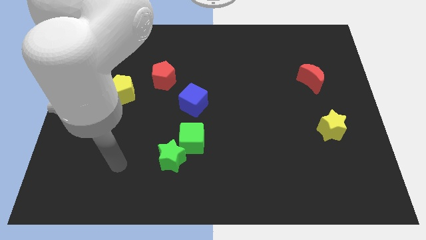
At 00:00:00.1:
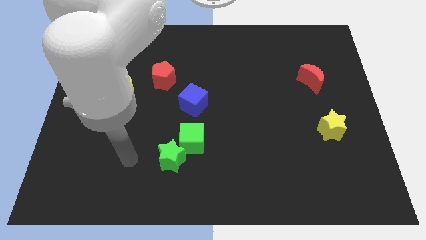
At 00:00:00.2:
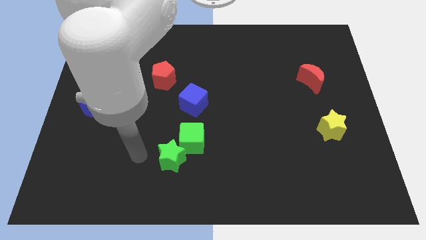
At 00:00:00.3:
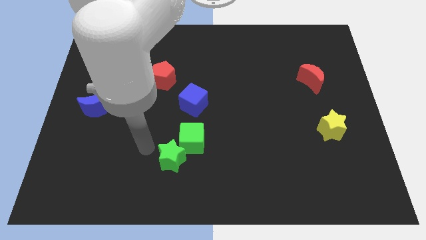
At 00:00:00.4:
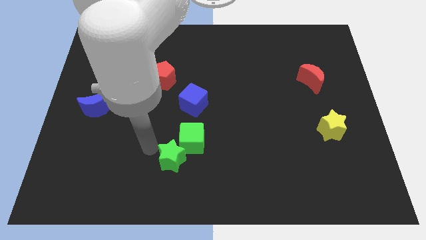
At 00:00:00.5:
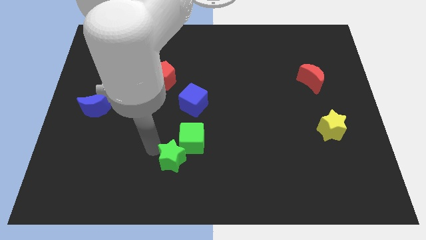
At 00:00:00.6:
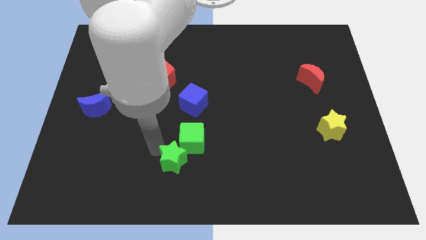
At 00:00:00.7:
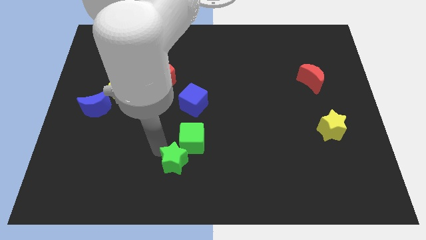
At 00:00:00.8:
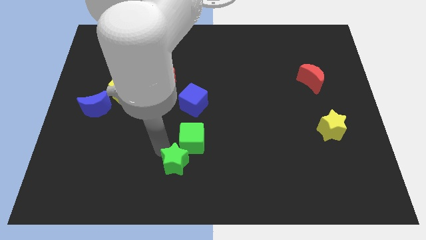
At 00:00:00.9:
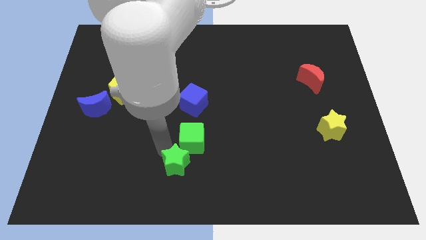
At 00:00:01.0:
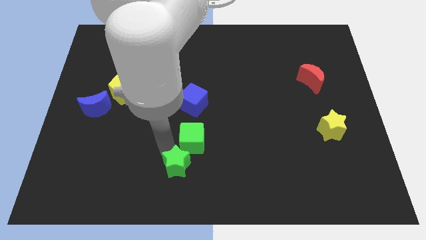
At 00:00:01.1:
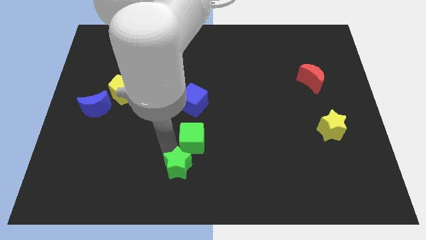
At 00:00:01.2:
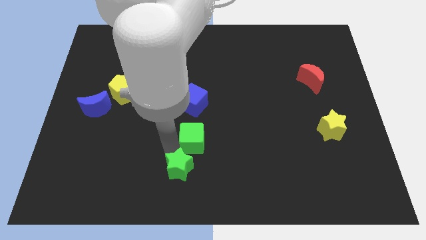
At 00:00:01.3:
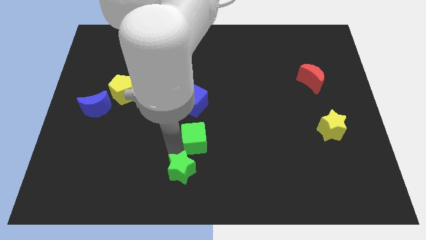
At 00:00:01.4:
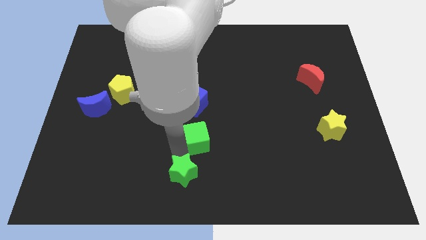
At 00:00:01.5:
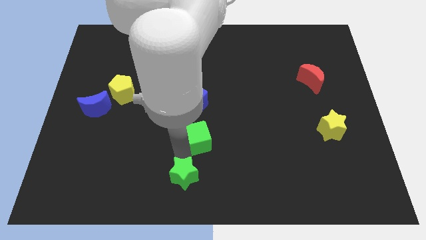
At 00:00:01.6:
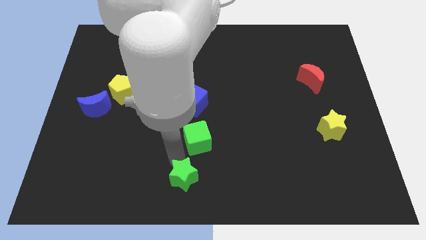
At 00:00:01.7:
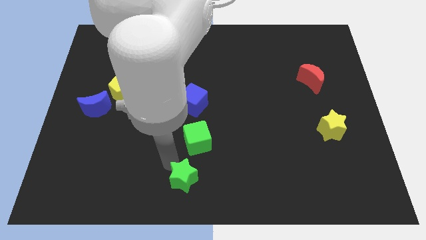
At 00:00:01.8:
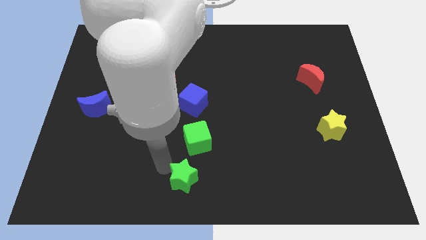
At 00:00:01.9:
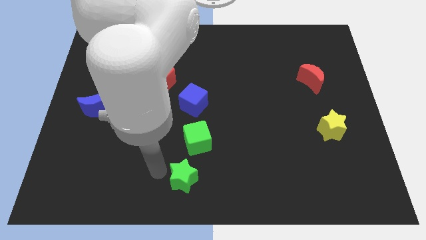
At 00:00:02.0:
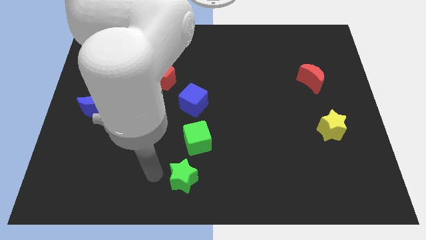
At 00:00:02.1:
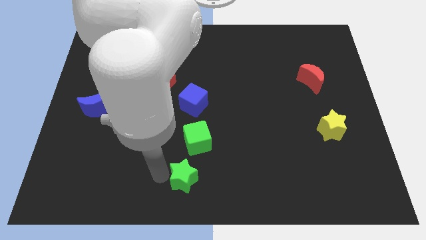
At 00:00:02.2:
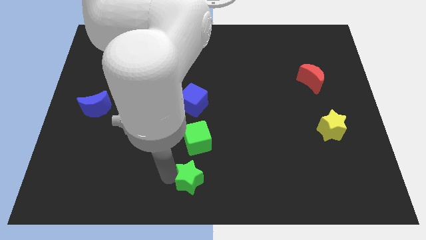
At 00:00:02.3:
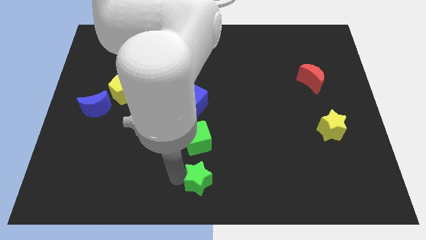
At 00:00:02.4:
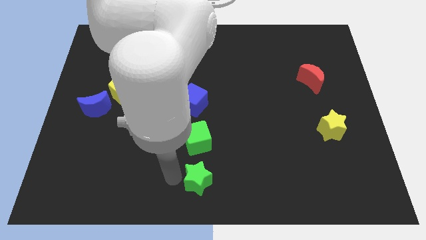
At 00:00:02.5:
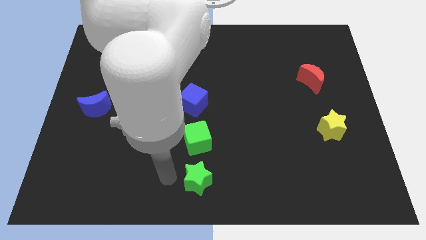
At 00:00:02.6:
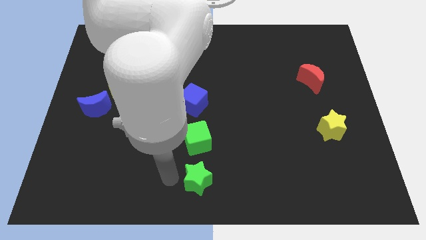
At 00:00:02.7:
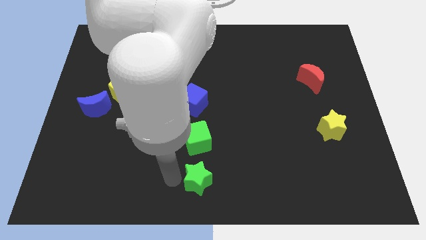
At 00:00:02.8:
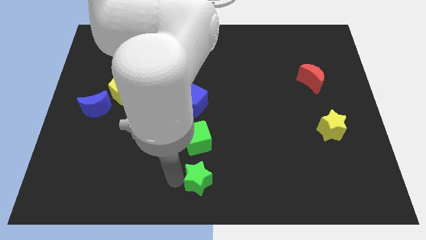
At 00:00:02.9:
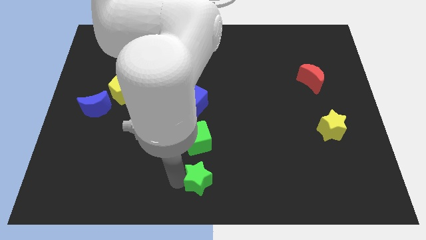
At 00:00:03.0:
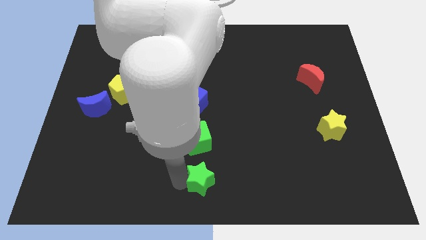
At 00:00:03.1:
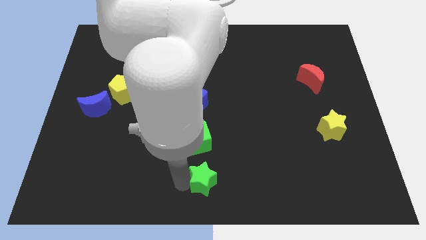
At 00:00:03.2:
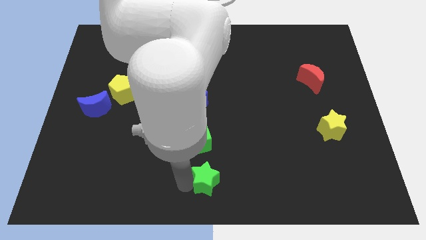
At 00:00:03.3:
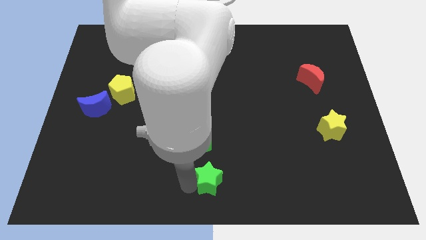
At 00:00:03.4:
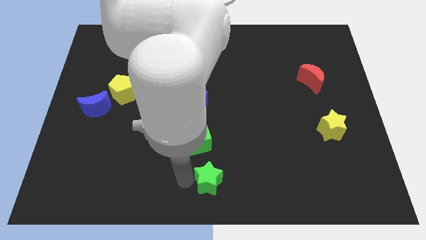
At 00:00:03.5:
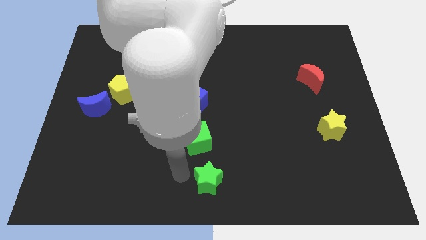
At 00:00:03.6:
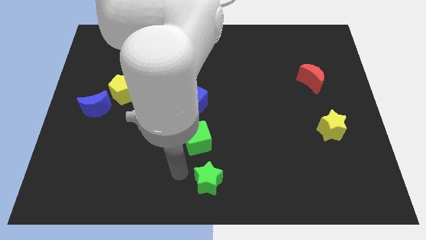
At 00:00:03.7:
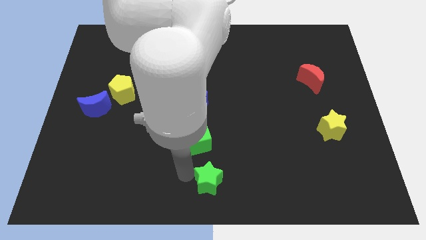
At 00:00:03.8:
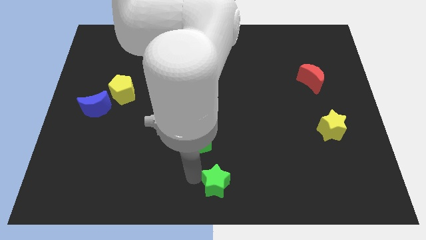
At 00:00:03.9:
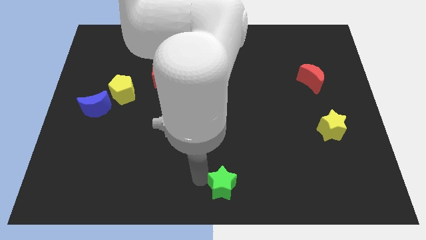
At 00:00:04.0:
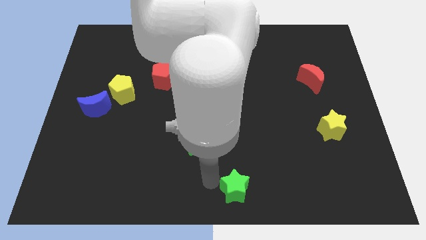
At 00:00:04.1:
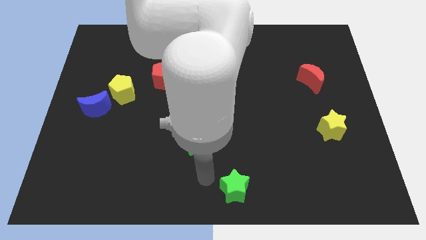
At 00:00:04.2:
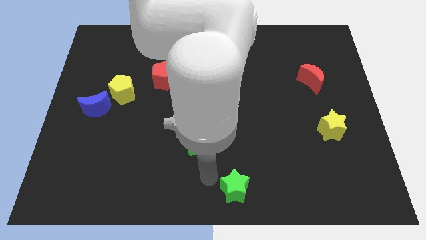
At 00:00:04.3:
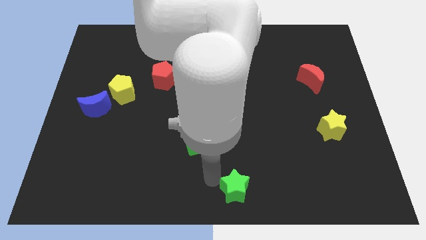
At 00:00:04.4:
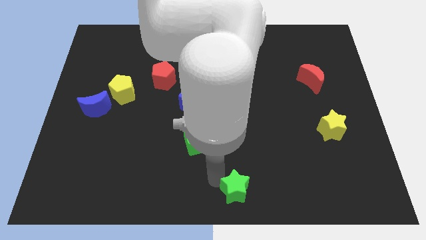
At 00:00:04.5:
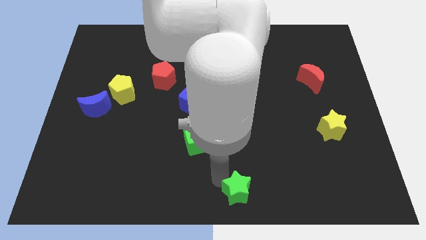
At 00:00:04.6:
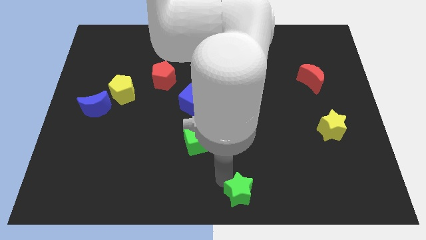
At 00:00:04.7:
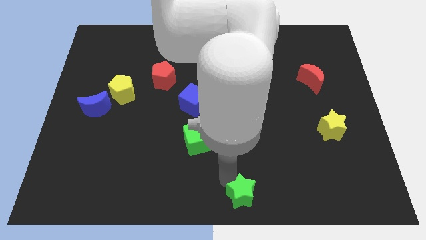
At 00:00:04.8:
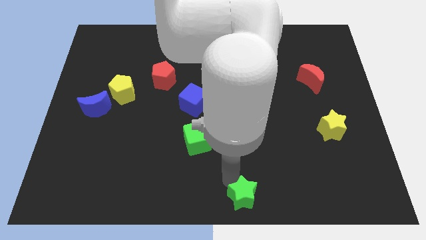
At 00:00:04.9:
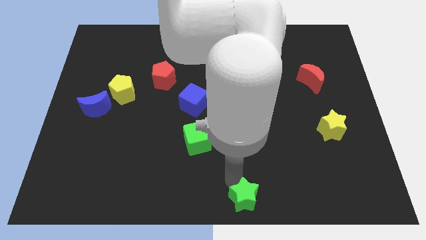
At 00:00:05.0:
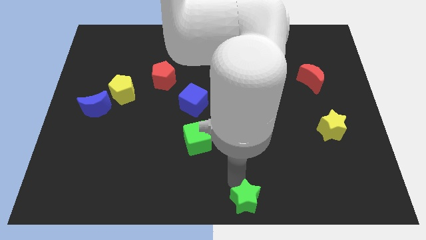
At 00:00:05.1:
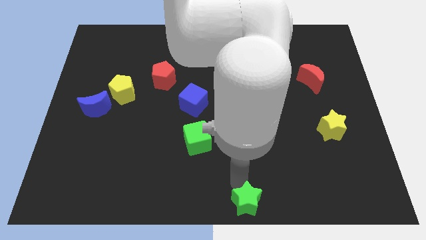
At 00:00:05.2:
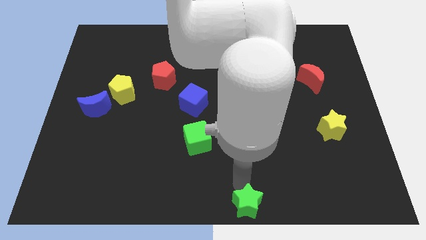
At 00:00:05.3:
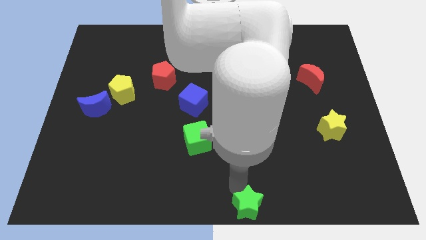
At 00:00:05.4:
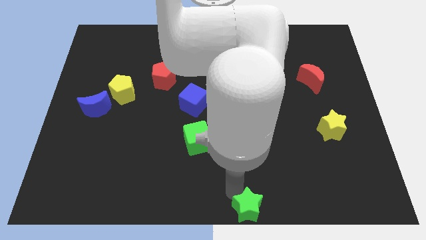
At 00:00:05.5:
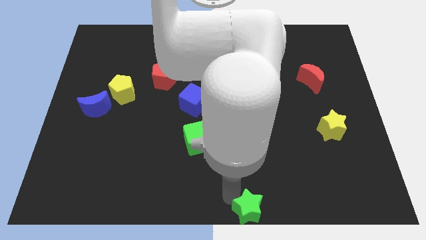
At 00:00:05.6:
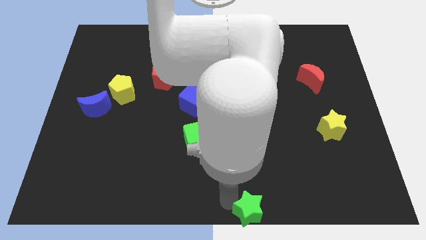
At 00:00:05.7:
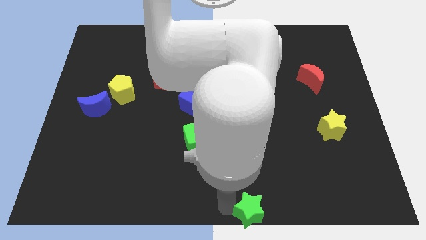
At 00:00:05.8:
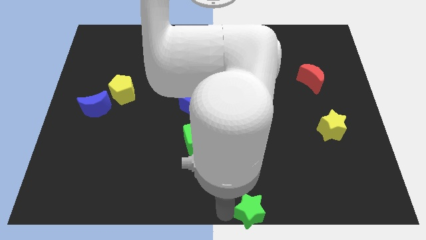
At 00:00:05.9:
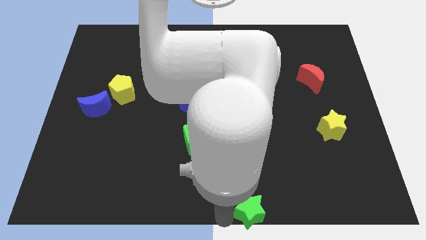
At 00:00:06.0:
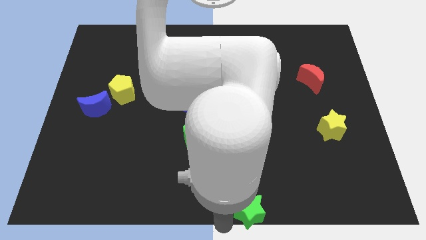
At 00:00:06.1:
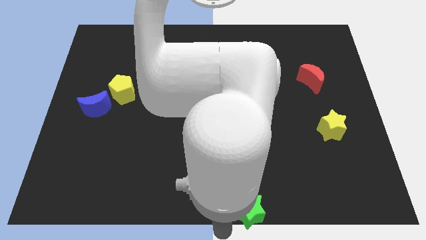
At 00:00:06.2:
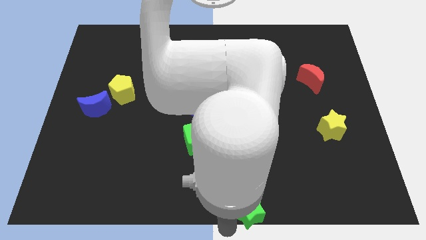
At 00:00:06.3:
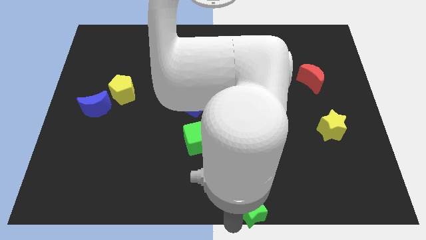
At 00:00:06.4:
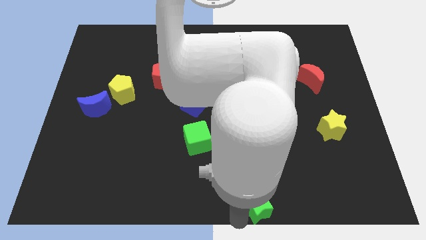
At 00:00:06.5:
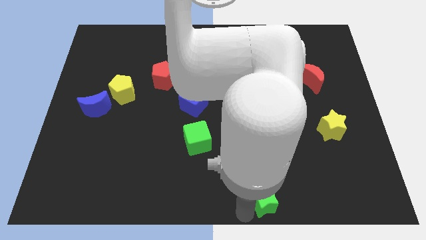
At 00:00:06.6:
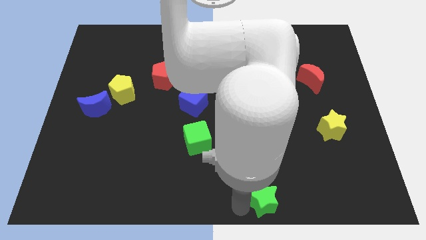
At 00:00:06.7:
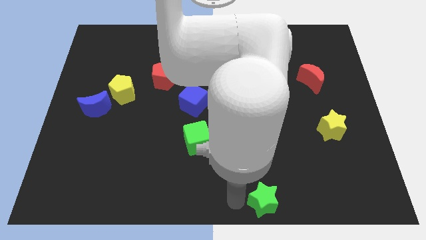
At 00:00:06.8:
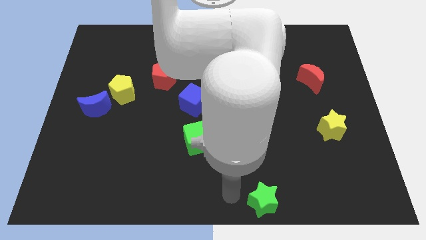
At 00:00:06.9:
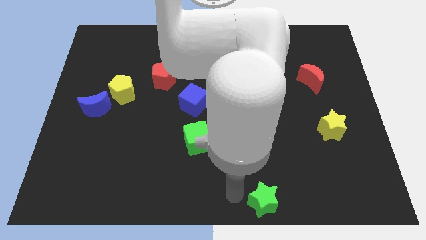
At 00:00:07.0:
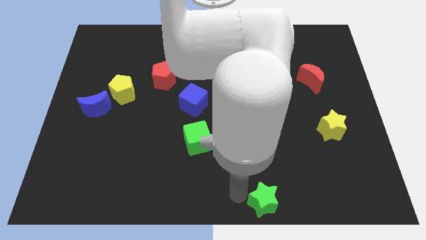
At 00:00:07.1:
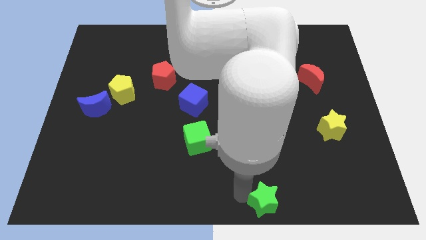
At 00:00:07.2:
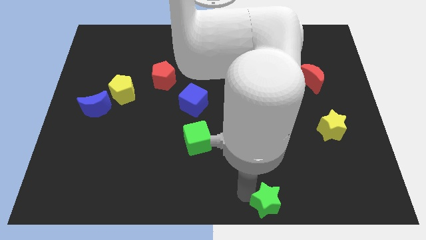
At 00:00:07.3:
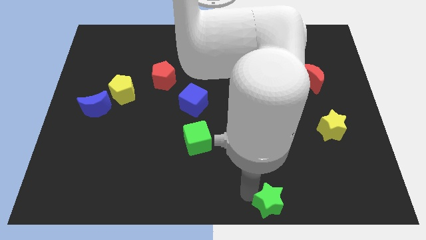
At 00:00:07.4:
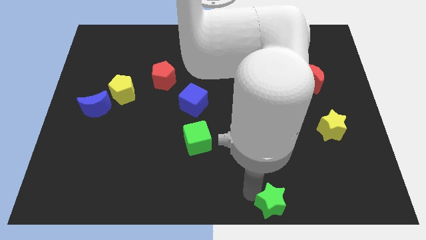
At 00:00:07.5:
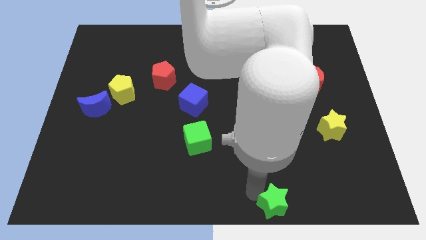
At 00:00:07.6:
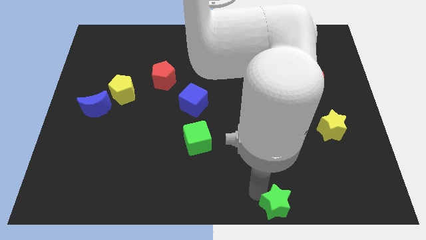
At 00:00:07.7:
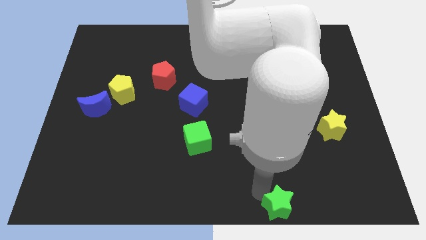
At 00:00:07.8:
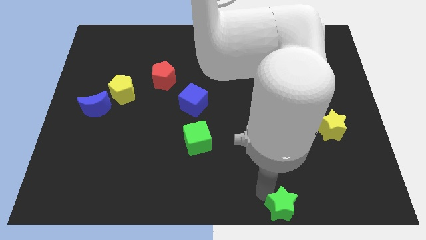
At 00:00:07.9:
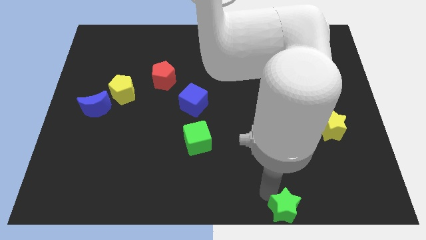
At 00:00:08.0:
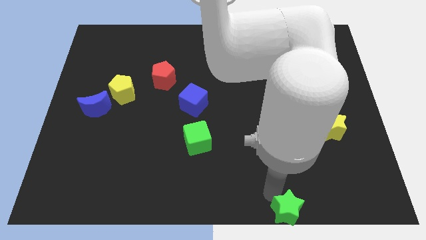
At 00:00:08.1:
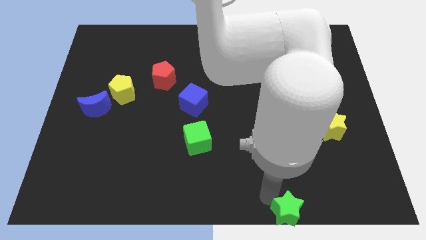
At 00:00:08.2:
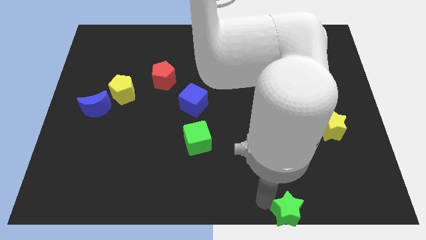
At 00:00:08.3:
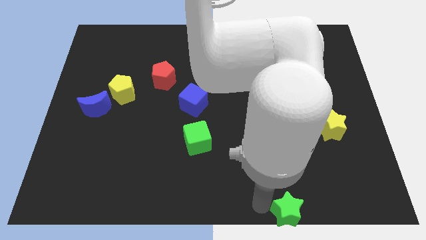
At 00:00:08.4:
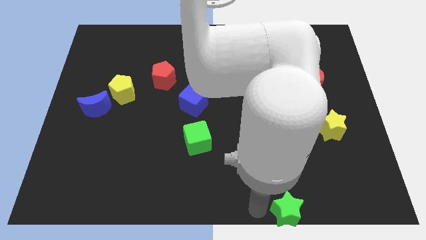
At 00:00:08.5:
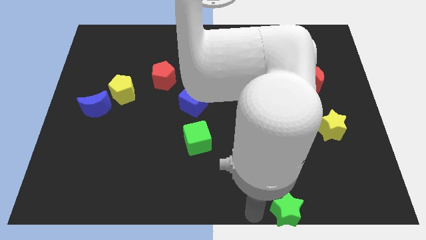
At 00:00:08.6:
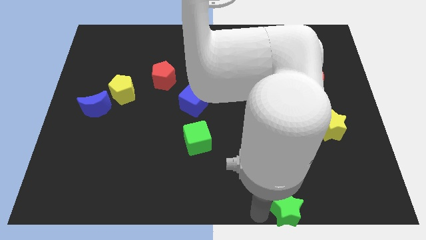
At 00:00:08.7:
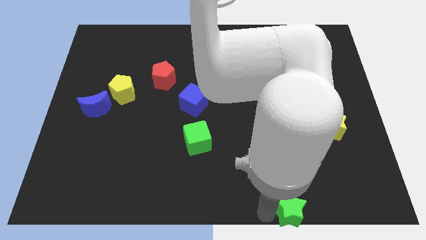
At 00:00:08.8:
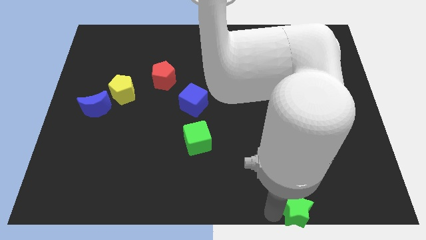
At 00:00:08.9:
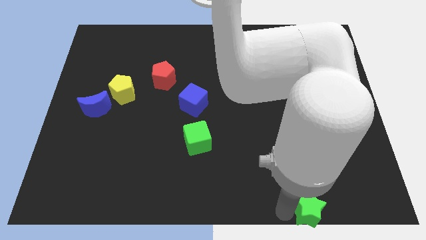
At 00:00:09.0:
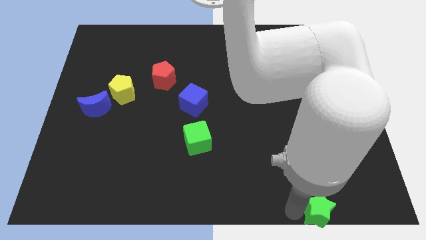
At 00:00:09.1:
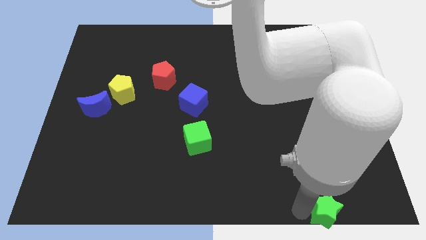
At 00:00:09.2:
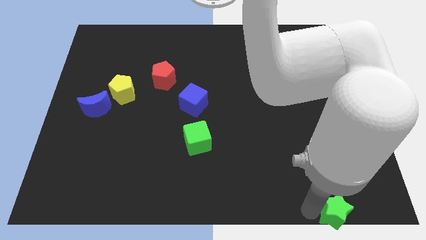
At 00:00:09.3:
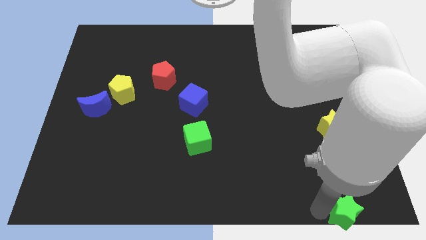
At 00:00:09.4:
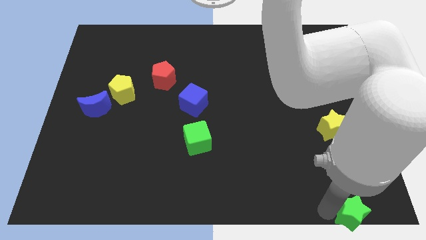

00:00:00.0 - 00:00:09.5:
push the green star to the lower right corner
